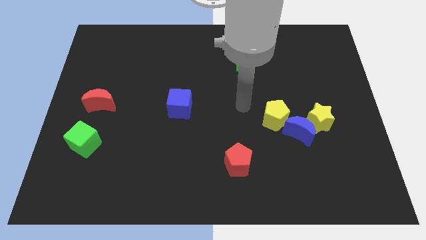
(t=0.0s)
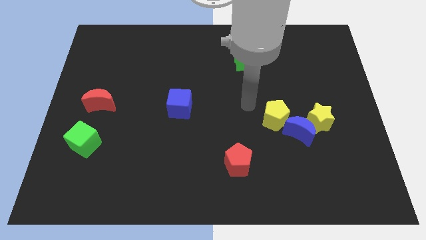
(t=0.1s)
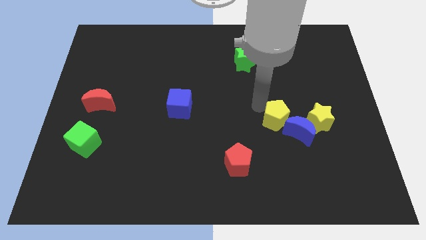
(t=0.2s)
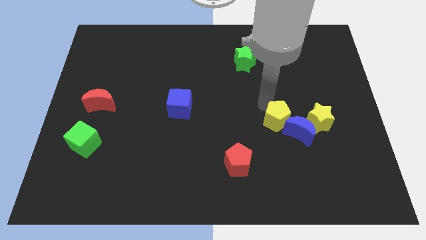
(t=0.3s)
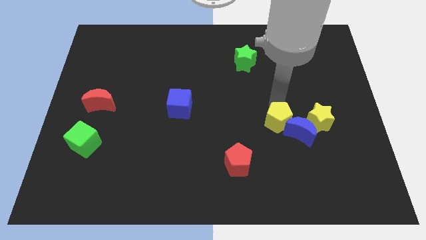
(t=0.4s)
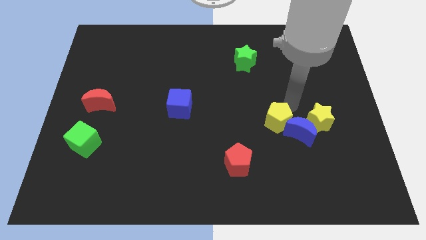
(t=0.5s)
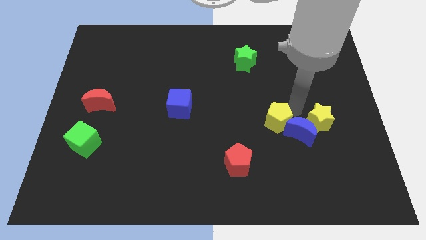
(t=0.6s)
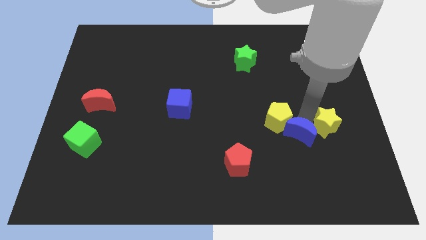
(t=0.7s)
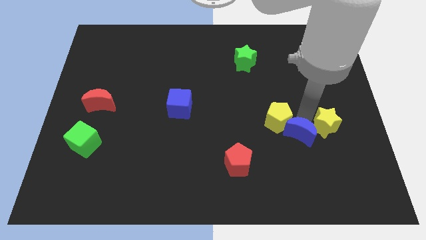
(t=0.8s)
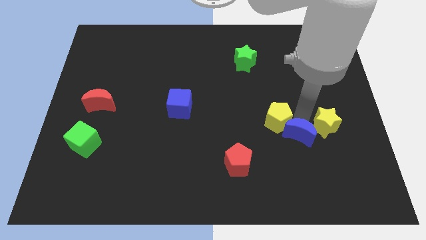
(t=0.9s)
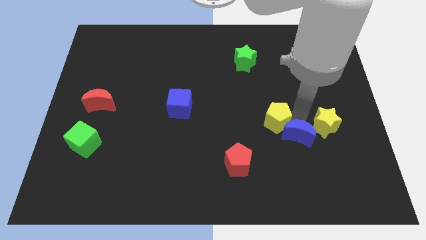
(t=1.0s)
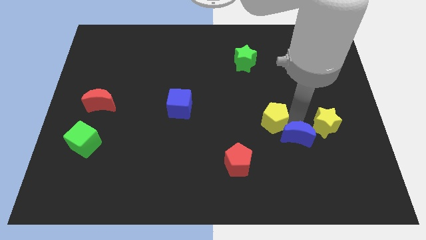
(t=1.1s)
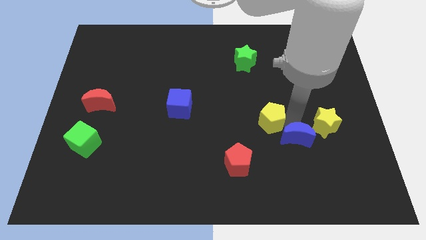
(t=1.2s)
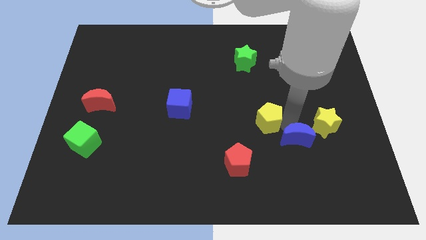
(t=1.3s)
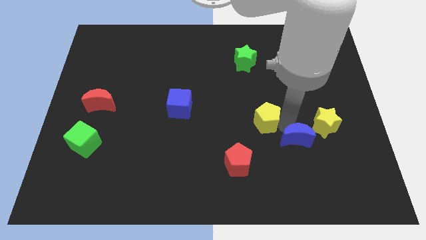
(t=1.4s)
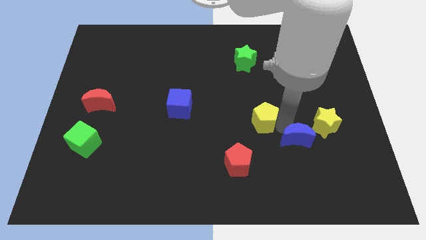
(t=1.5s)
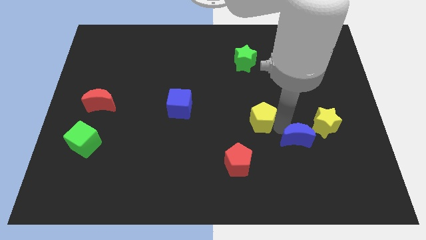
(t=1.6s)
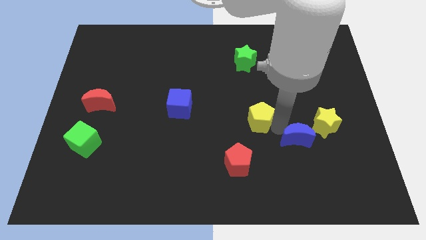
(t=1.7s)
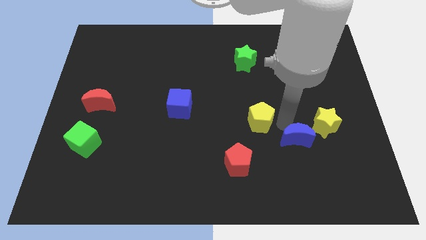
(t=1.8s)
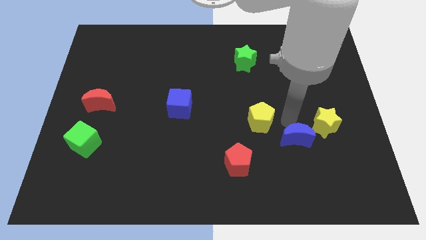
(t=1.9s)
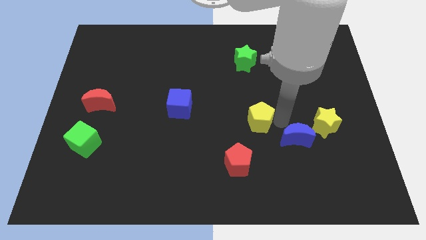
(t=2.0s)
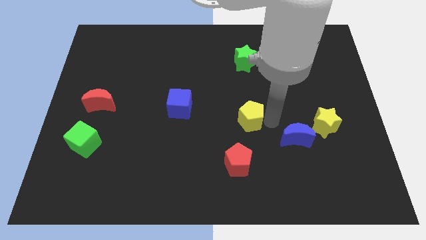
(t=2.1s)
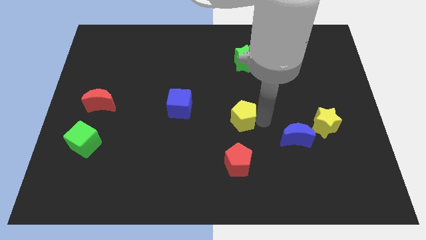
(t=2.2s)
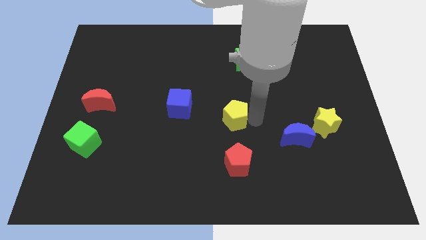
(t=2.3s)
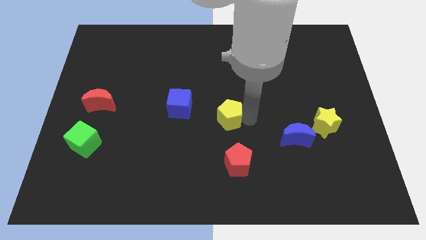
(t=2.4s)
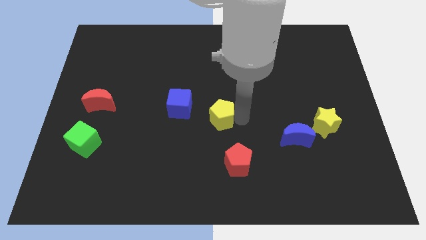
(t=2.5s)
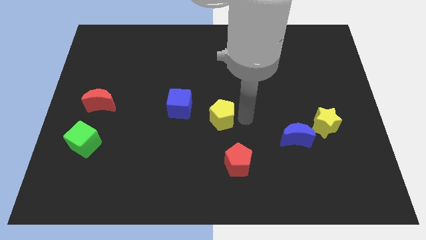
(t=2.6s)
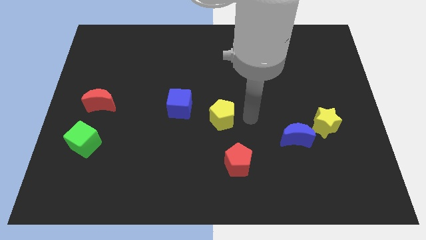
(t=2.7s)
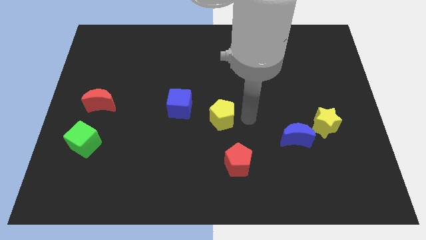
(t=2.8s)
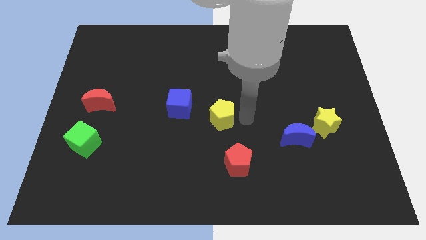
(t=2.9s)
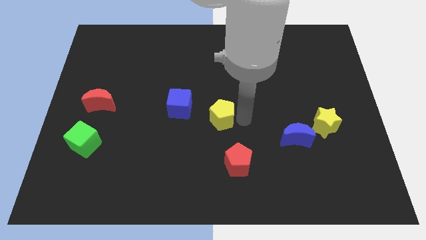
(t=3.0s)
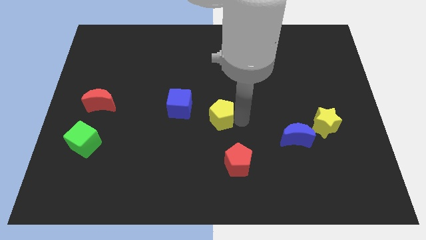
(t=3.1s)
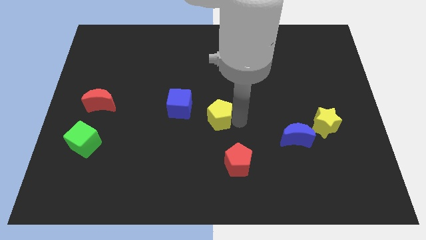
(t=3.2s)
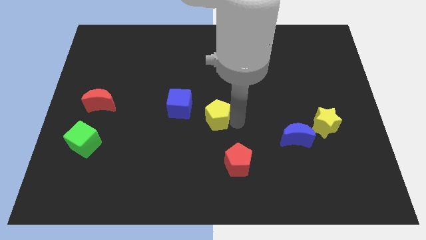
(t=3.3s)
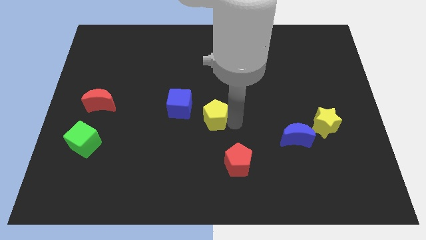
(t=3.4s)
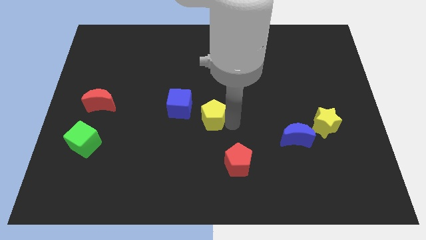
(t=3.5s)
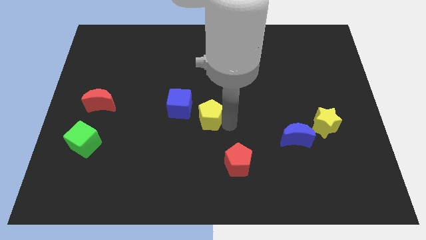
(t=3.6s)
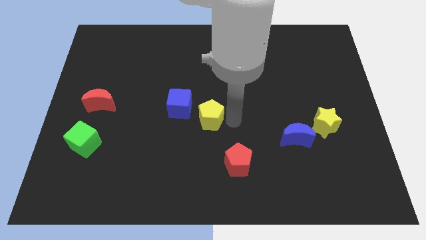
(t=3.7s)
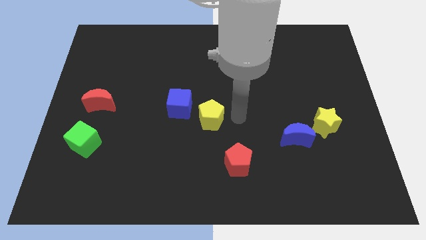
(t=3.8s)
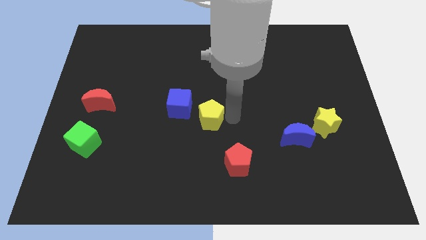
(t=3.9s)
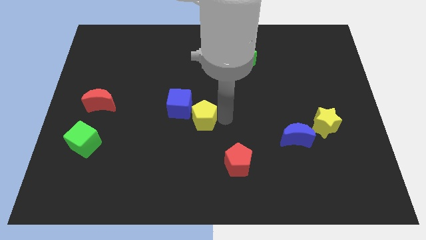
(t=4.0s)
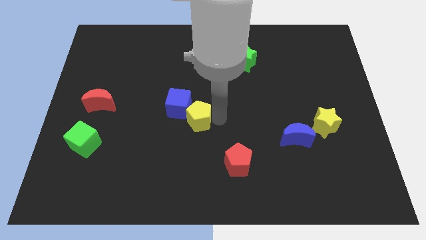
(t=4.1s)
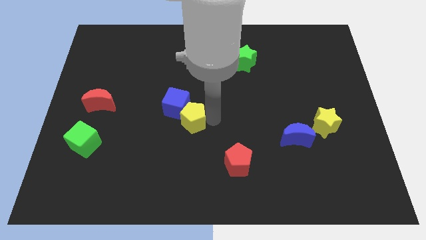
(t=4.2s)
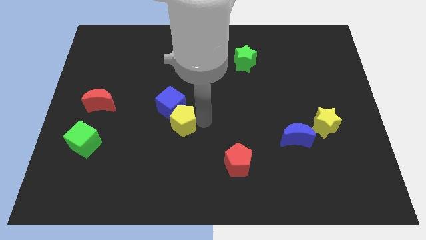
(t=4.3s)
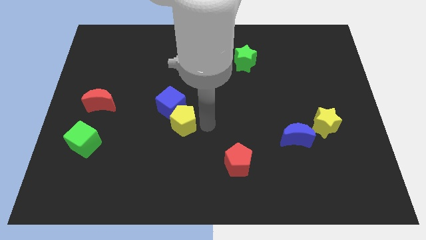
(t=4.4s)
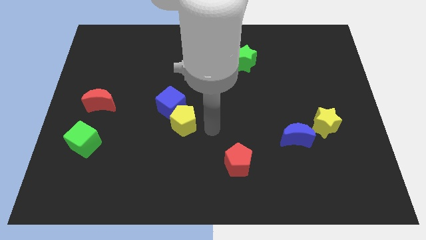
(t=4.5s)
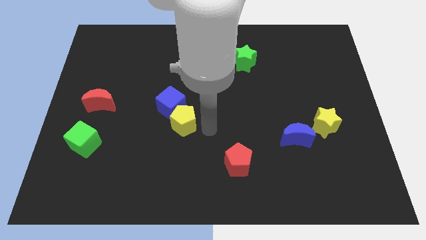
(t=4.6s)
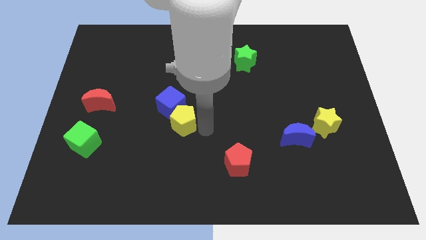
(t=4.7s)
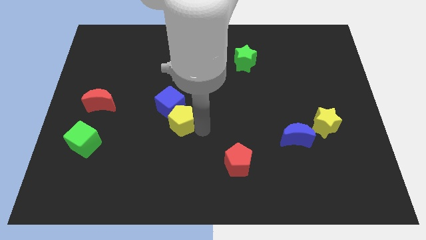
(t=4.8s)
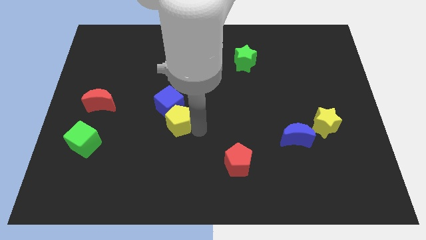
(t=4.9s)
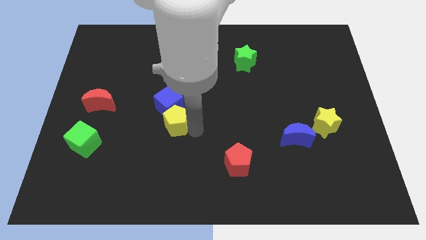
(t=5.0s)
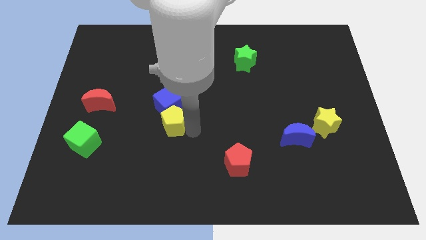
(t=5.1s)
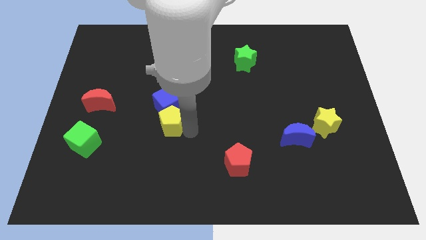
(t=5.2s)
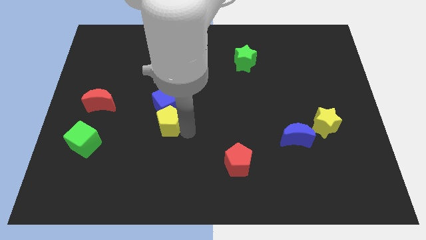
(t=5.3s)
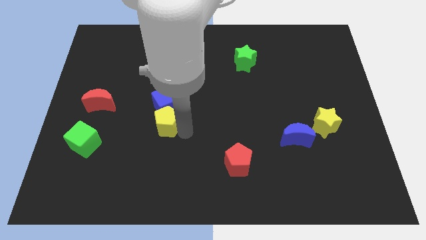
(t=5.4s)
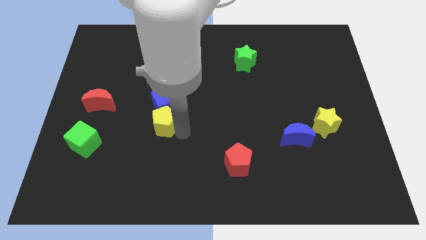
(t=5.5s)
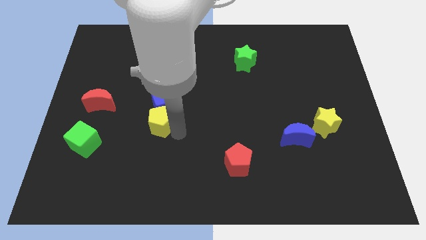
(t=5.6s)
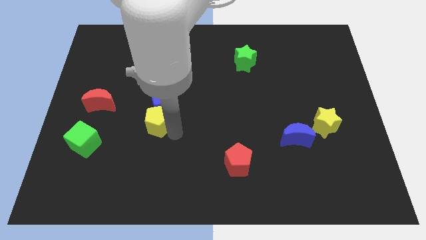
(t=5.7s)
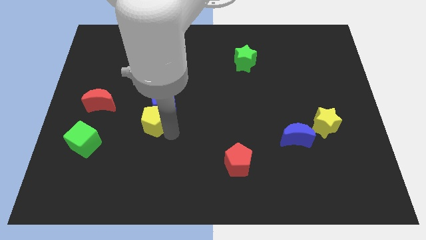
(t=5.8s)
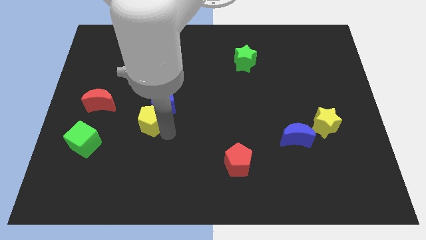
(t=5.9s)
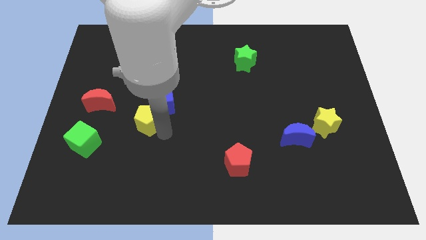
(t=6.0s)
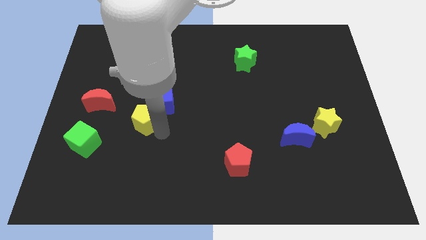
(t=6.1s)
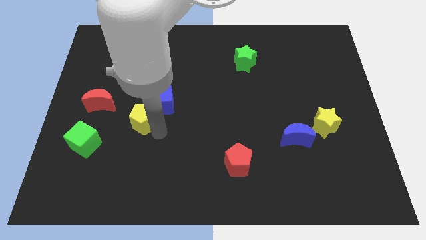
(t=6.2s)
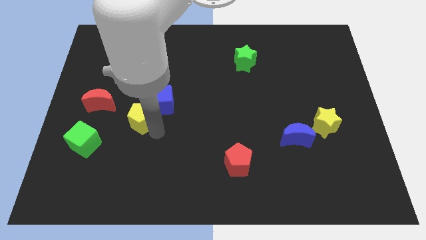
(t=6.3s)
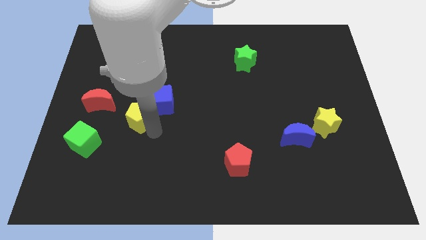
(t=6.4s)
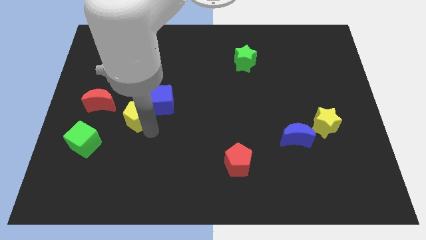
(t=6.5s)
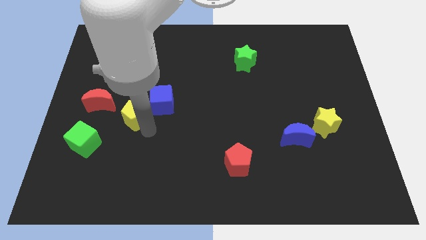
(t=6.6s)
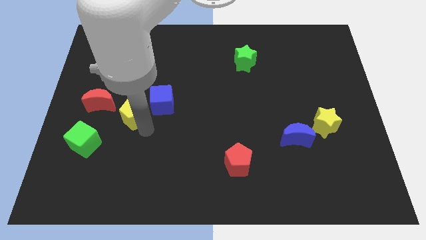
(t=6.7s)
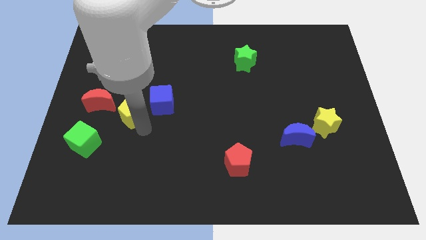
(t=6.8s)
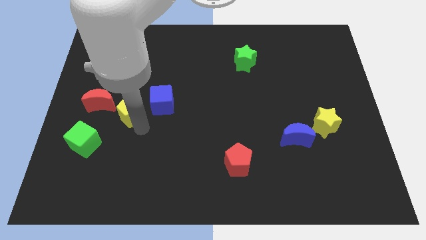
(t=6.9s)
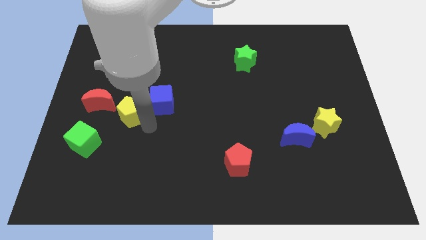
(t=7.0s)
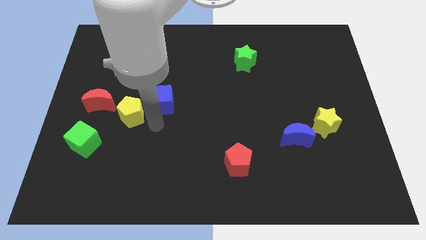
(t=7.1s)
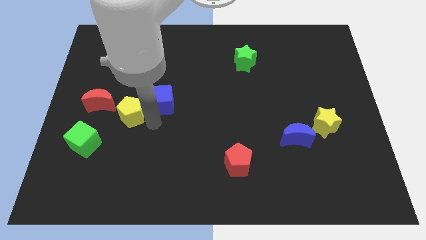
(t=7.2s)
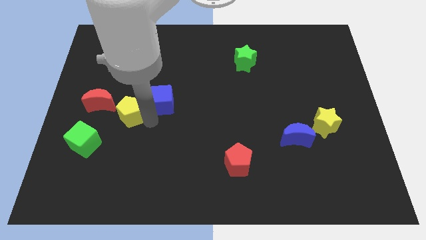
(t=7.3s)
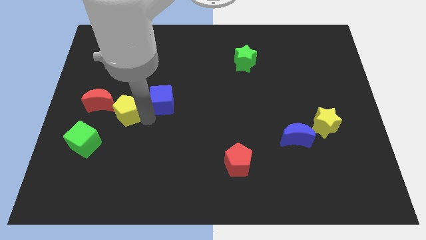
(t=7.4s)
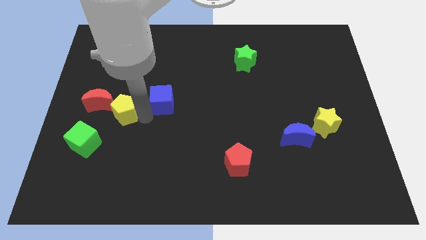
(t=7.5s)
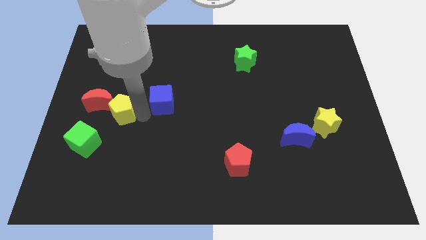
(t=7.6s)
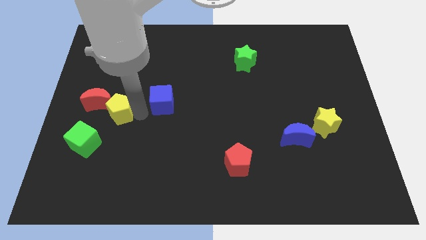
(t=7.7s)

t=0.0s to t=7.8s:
push the yellow pentagon towards the red moon
